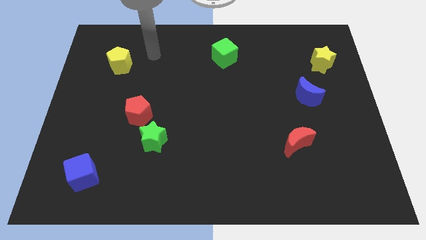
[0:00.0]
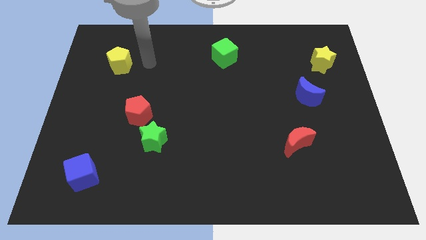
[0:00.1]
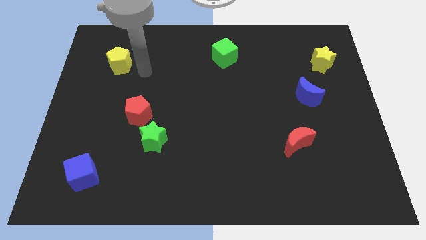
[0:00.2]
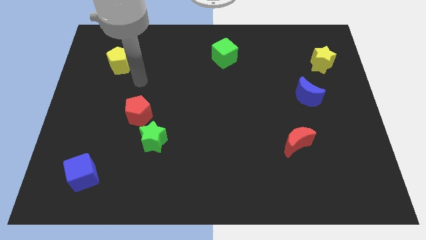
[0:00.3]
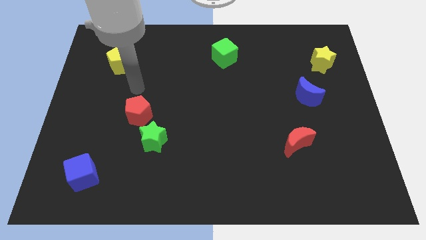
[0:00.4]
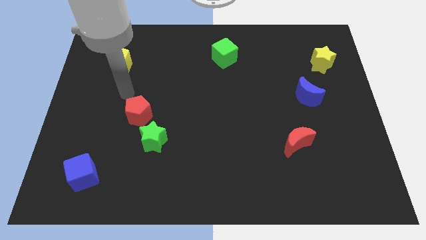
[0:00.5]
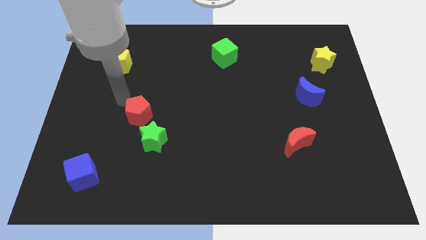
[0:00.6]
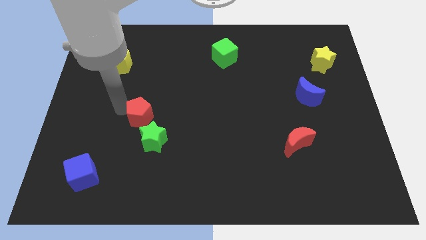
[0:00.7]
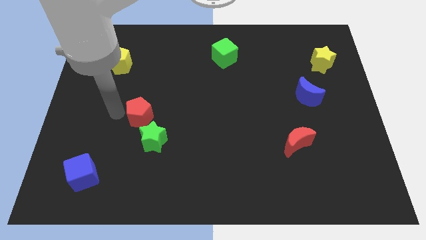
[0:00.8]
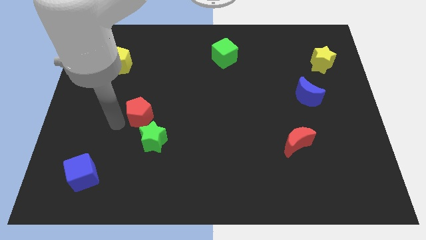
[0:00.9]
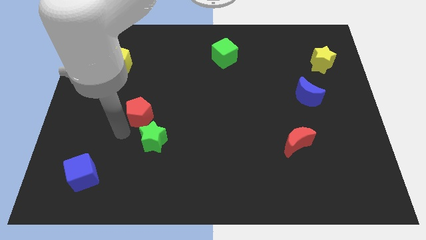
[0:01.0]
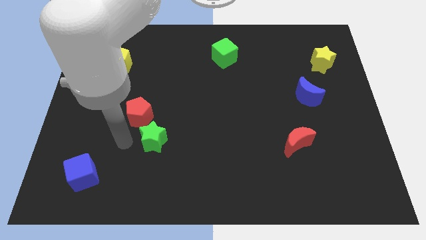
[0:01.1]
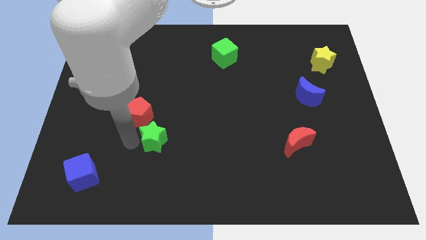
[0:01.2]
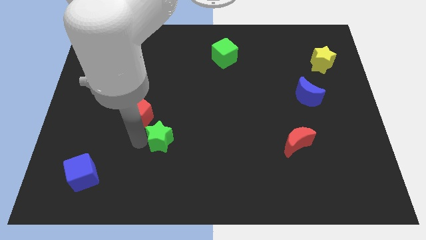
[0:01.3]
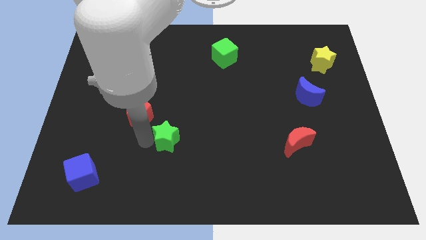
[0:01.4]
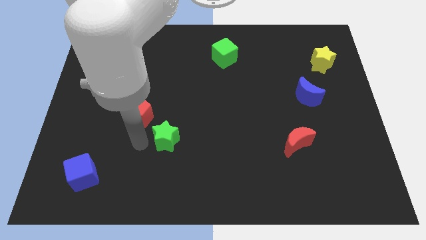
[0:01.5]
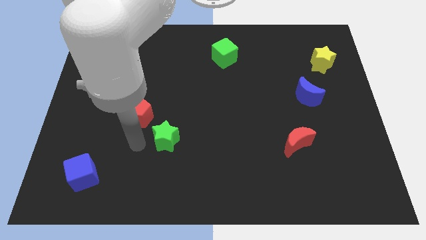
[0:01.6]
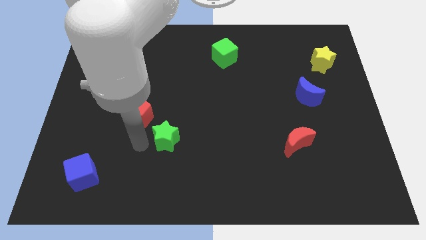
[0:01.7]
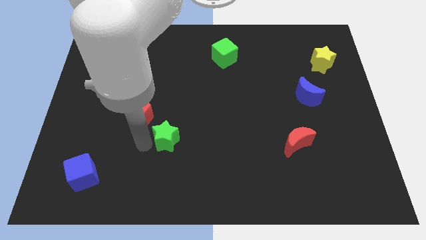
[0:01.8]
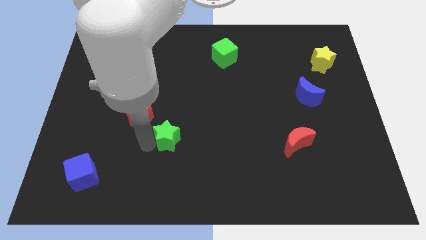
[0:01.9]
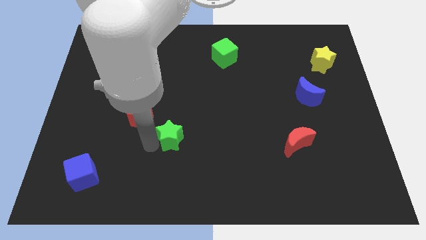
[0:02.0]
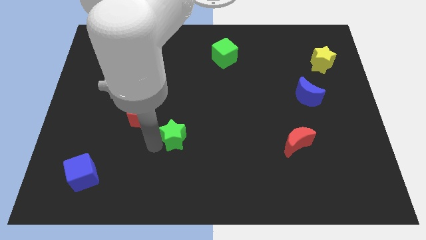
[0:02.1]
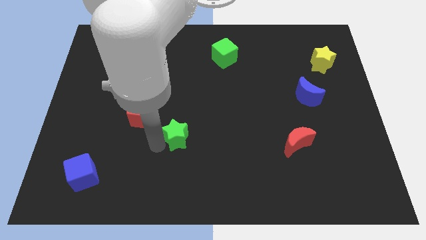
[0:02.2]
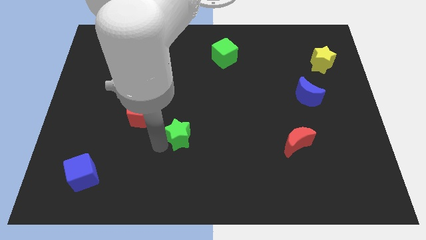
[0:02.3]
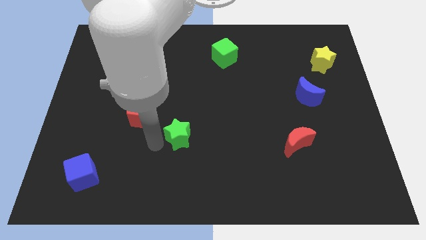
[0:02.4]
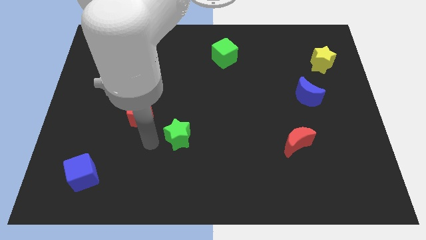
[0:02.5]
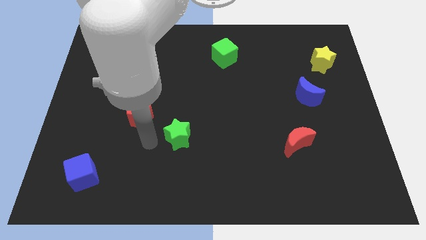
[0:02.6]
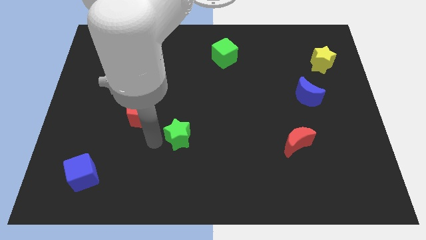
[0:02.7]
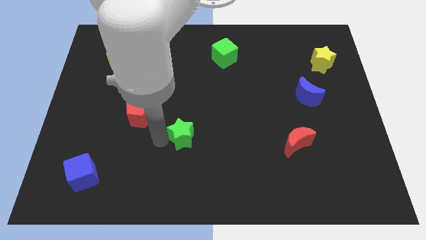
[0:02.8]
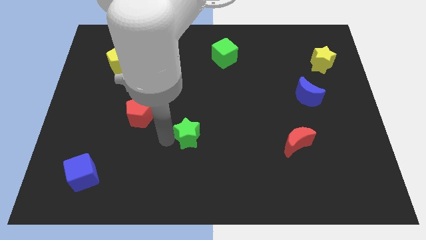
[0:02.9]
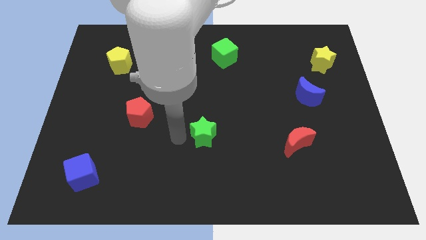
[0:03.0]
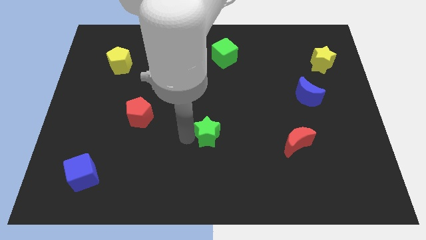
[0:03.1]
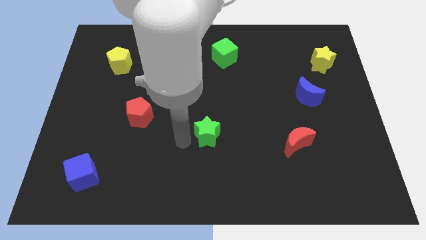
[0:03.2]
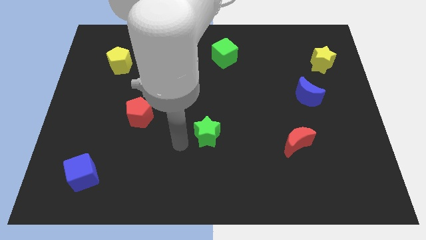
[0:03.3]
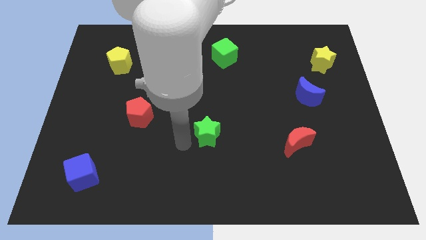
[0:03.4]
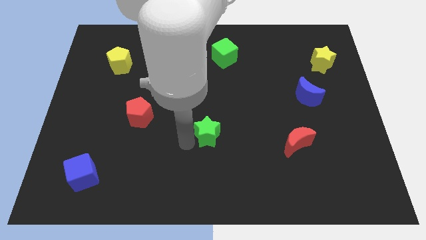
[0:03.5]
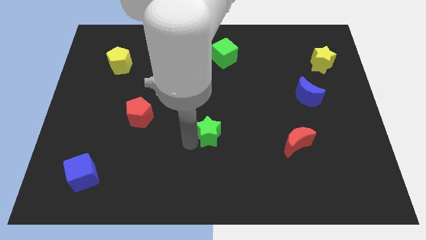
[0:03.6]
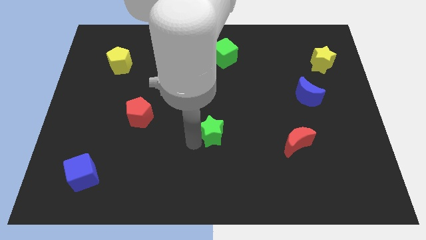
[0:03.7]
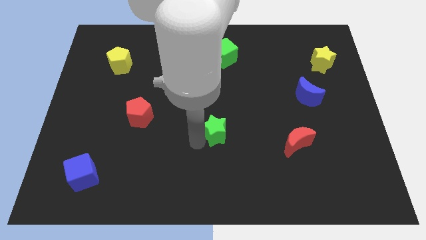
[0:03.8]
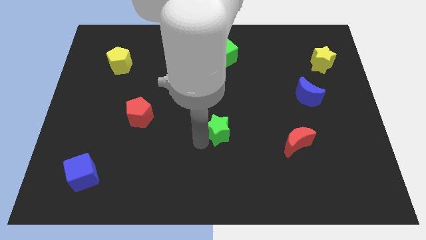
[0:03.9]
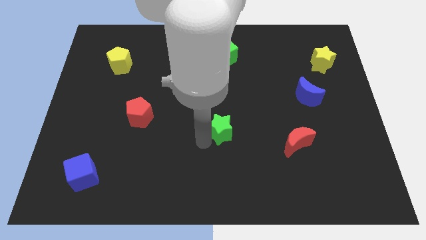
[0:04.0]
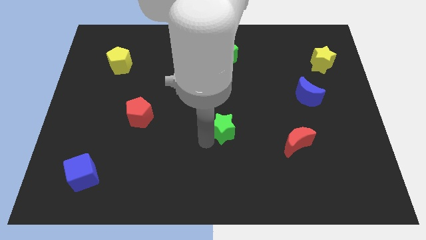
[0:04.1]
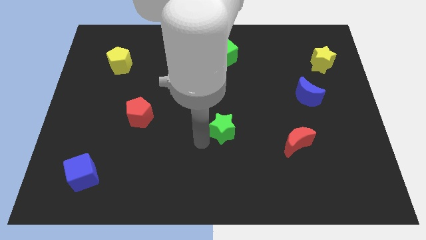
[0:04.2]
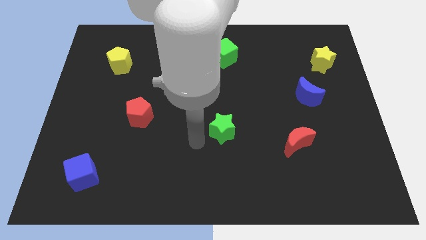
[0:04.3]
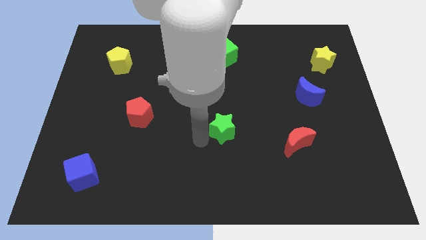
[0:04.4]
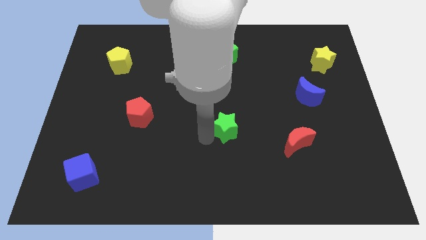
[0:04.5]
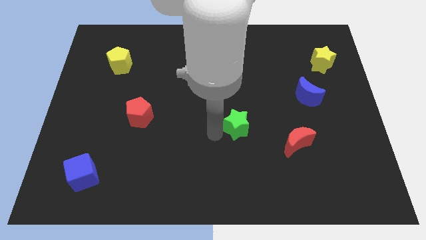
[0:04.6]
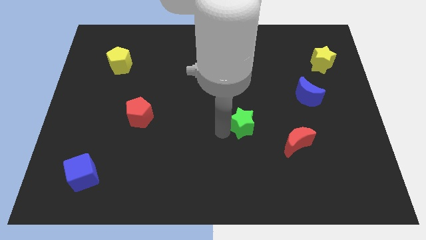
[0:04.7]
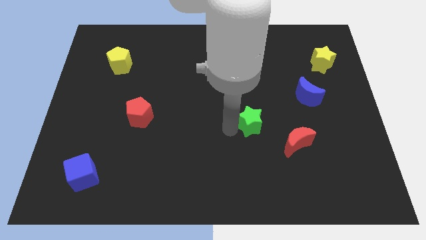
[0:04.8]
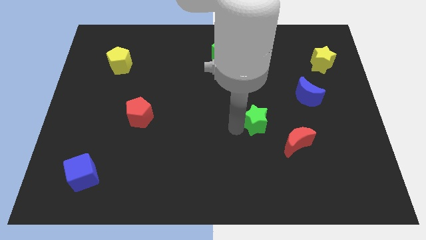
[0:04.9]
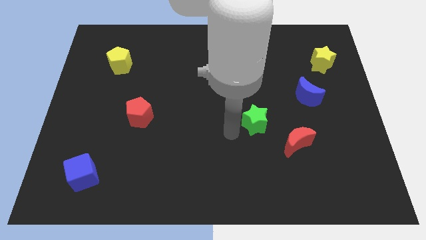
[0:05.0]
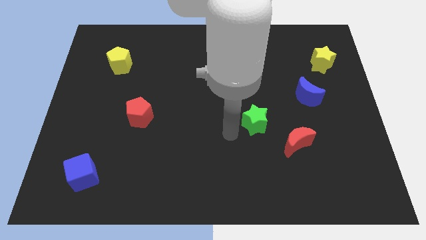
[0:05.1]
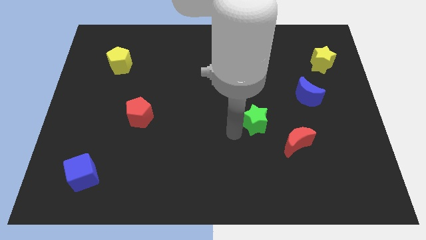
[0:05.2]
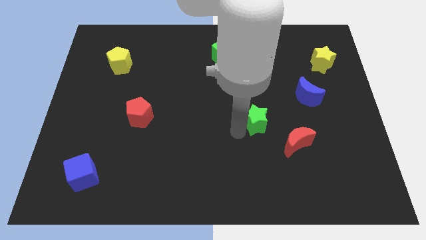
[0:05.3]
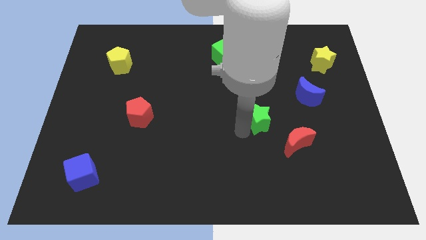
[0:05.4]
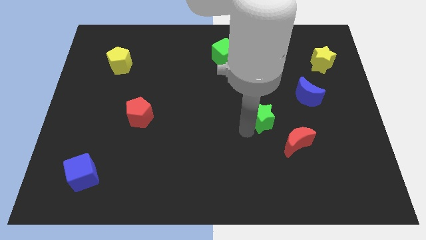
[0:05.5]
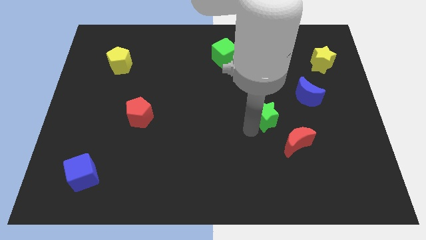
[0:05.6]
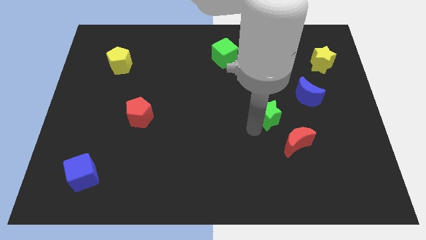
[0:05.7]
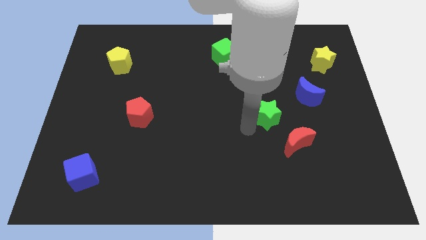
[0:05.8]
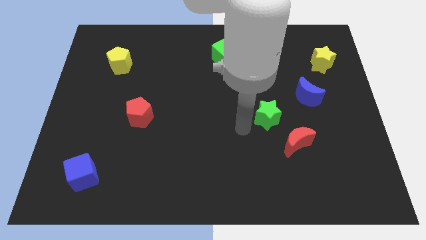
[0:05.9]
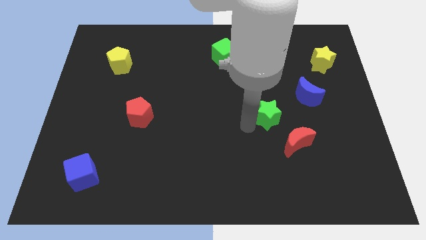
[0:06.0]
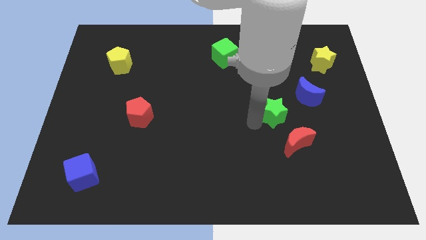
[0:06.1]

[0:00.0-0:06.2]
push the green star to the top of the red moon

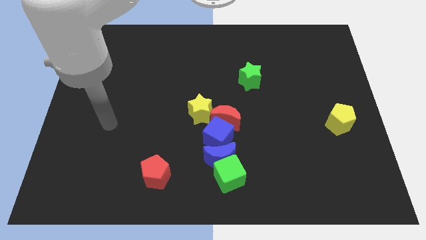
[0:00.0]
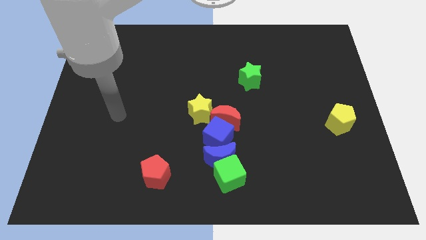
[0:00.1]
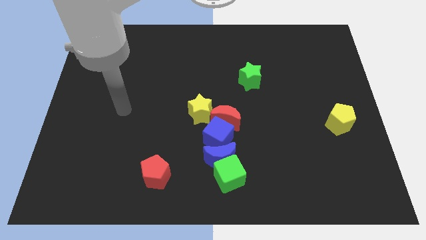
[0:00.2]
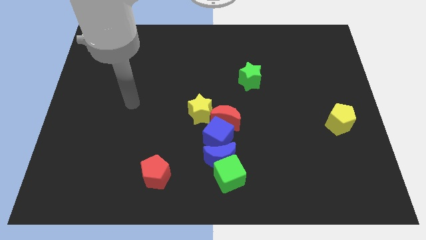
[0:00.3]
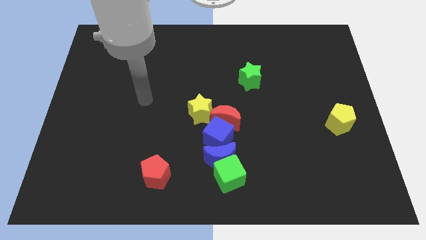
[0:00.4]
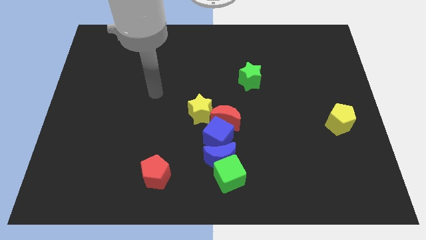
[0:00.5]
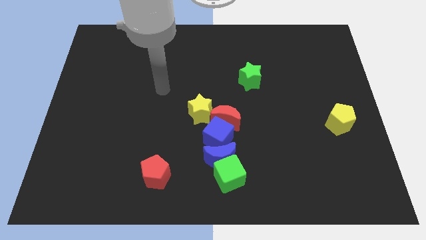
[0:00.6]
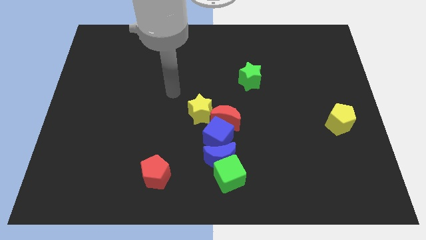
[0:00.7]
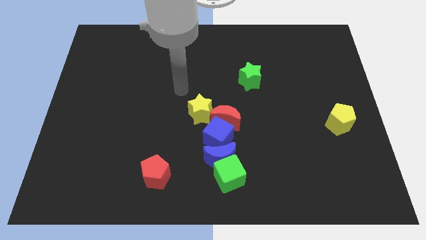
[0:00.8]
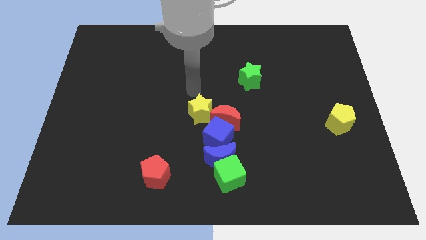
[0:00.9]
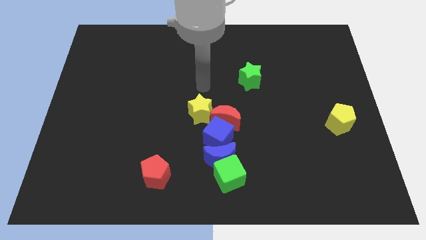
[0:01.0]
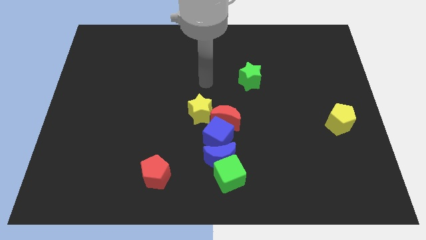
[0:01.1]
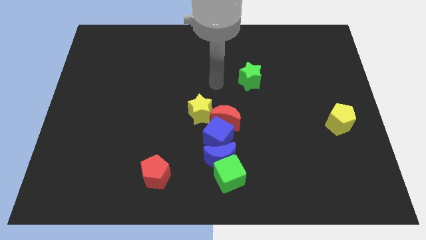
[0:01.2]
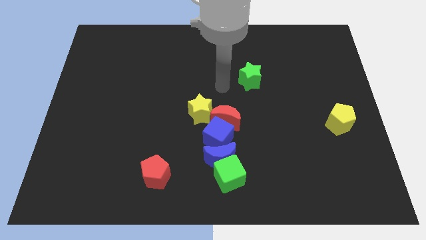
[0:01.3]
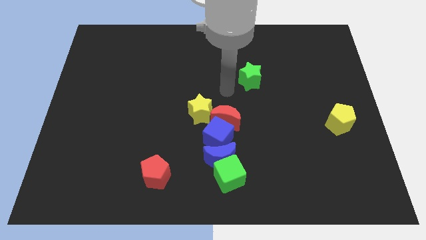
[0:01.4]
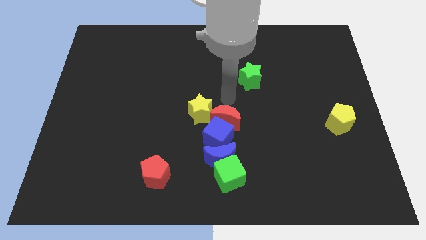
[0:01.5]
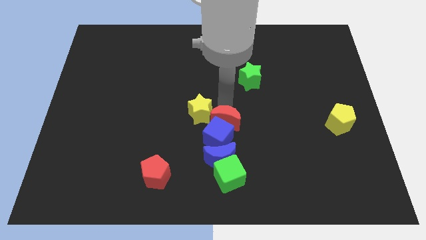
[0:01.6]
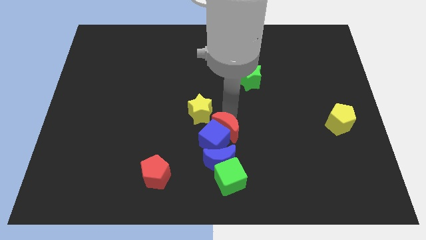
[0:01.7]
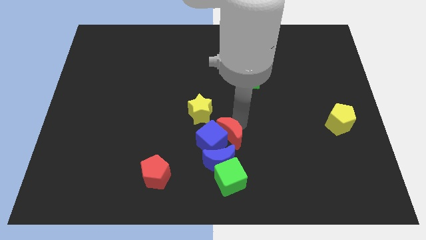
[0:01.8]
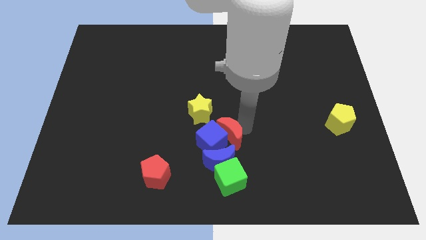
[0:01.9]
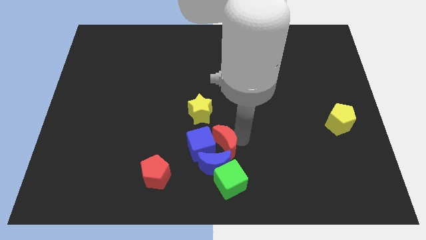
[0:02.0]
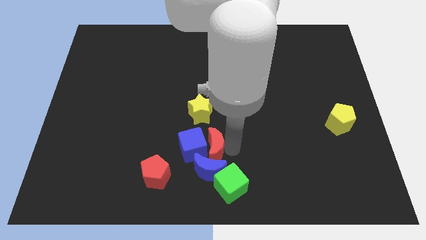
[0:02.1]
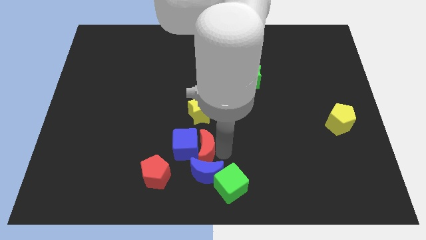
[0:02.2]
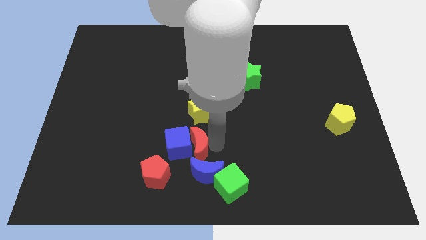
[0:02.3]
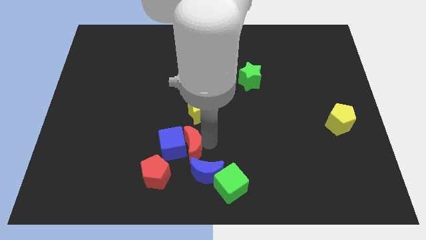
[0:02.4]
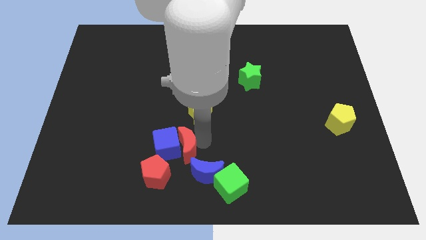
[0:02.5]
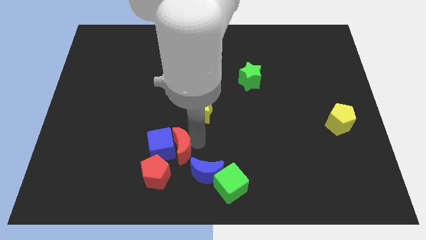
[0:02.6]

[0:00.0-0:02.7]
push the blue cube diagonally up and to the left of the red pentagon
